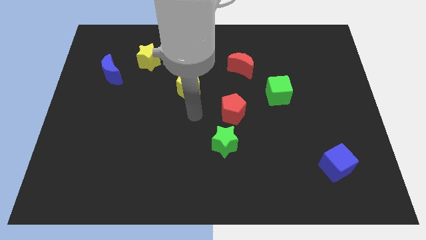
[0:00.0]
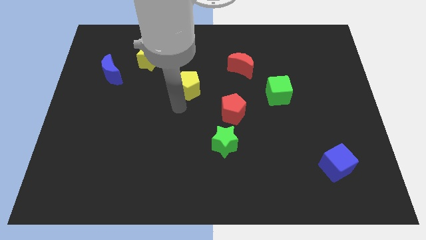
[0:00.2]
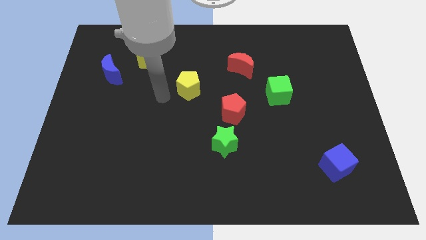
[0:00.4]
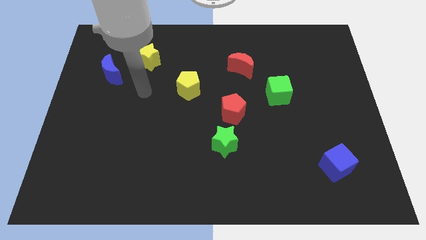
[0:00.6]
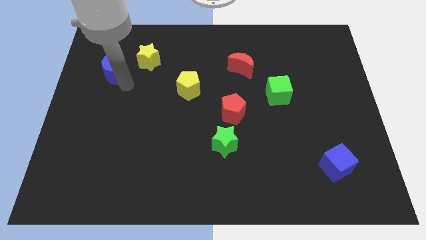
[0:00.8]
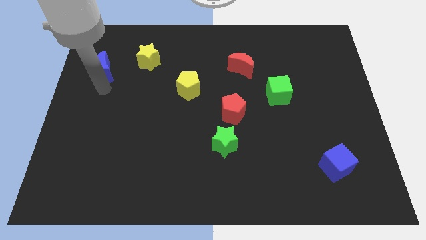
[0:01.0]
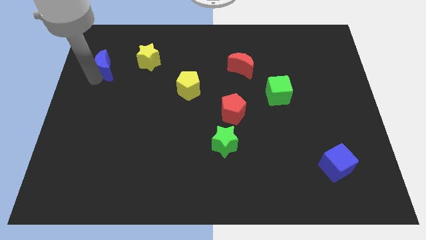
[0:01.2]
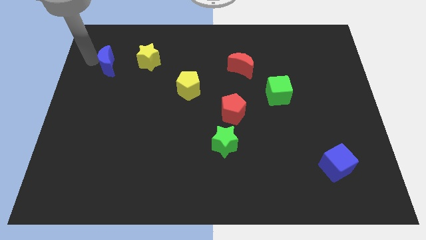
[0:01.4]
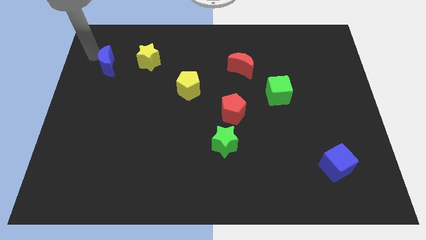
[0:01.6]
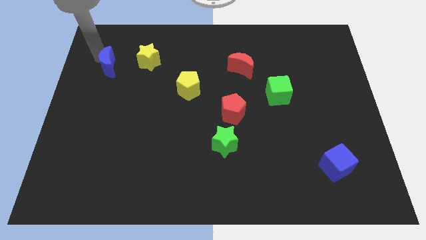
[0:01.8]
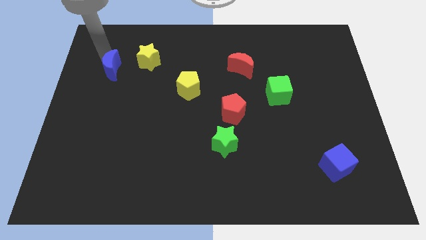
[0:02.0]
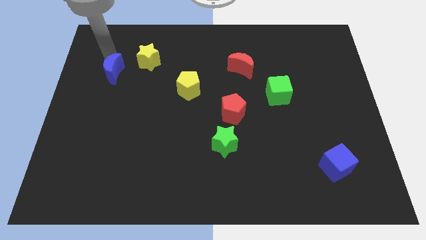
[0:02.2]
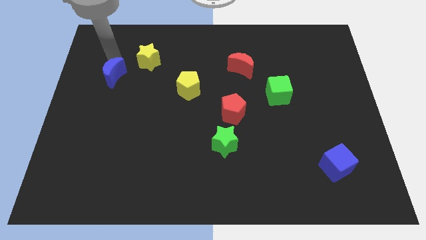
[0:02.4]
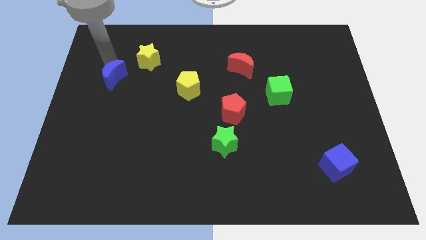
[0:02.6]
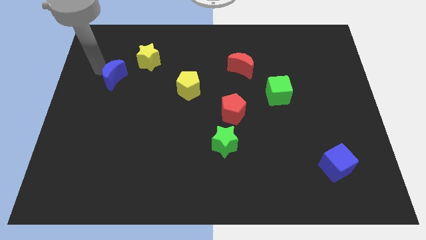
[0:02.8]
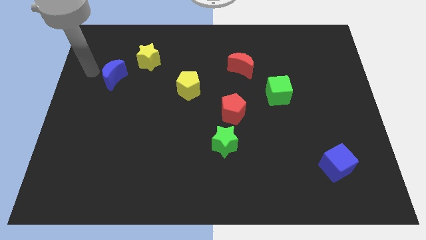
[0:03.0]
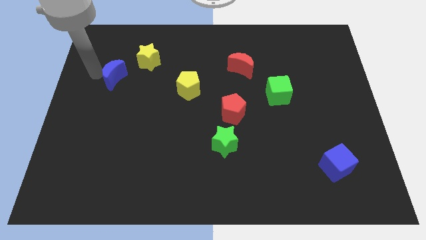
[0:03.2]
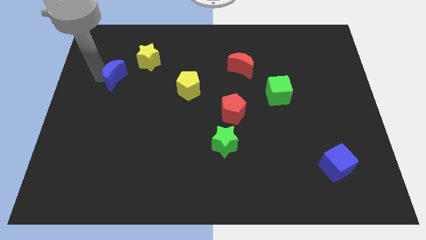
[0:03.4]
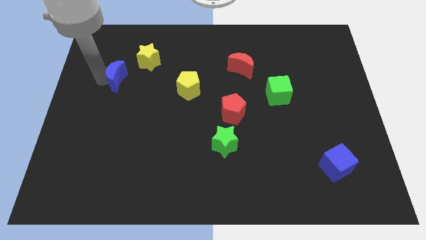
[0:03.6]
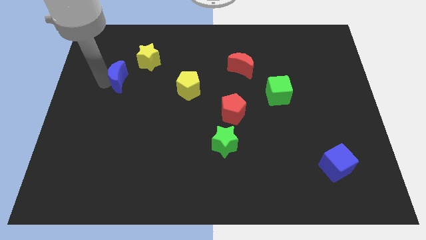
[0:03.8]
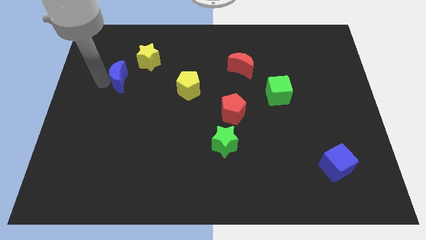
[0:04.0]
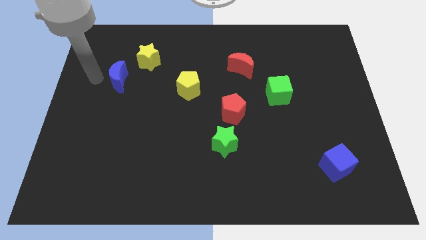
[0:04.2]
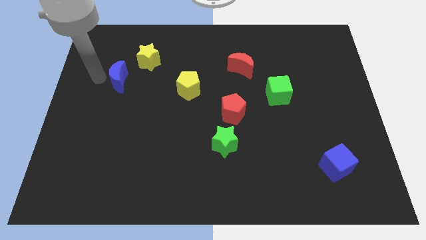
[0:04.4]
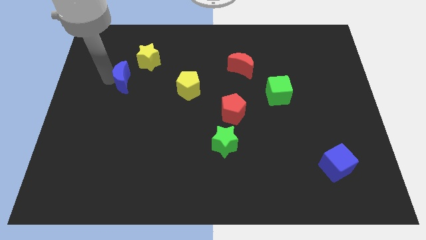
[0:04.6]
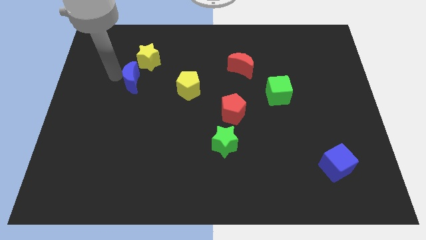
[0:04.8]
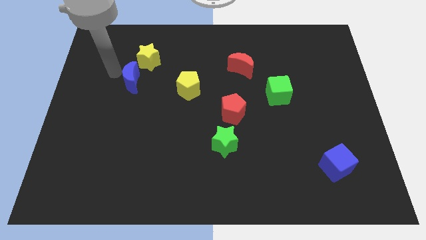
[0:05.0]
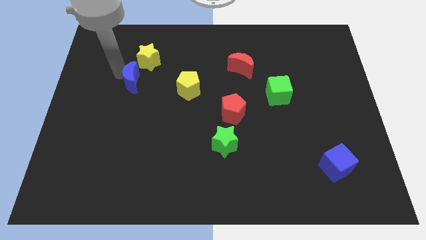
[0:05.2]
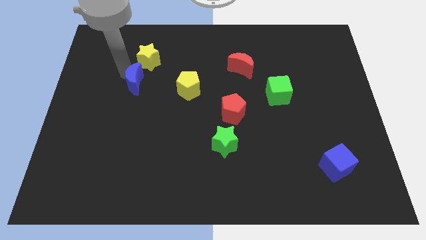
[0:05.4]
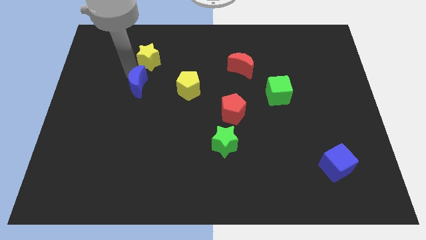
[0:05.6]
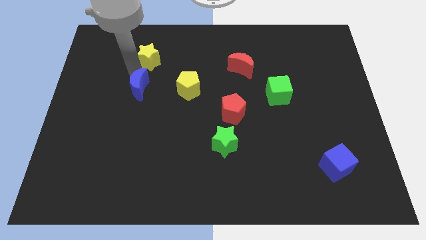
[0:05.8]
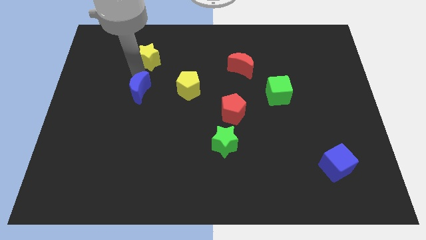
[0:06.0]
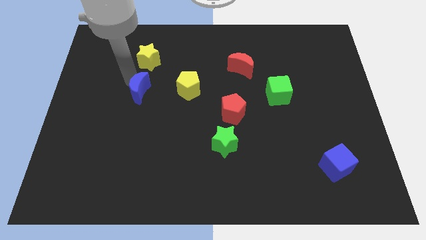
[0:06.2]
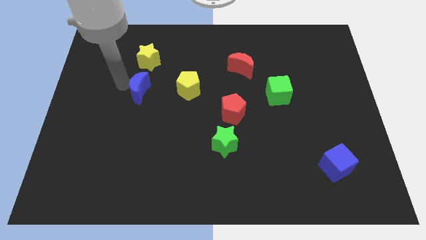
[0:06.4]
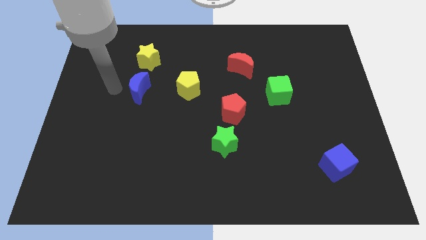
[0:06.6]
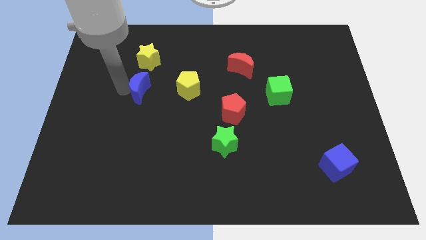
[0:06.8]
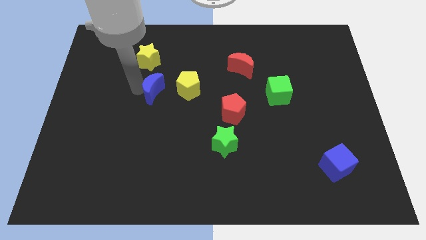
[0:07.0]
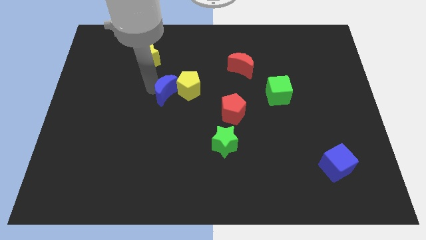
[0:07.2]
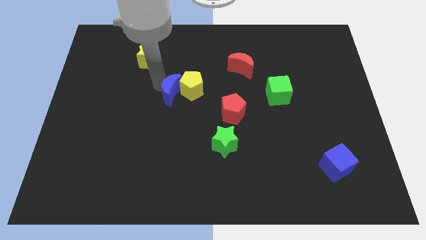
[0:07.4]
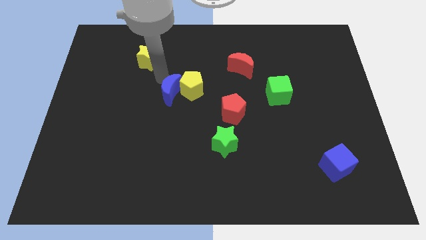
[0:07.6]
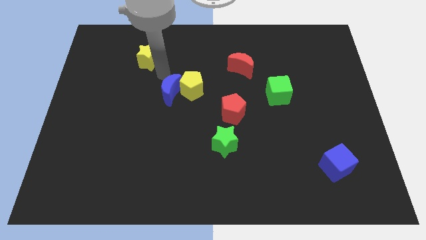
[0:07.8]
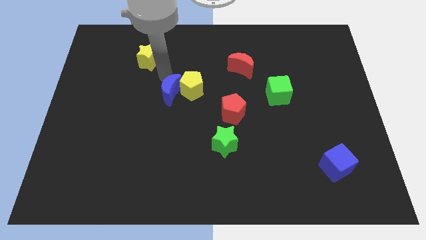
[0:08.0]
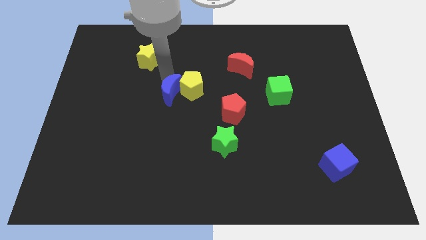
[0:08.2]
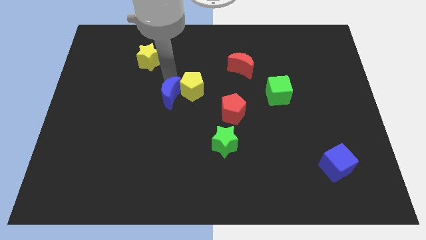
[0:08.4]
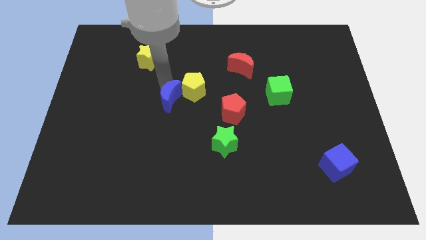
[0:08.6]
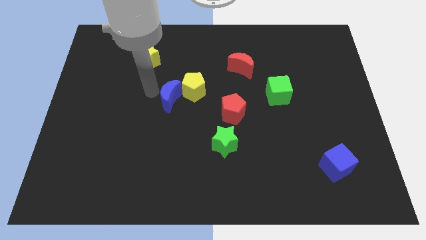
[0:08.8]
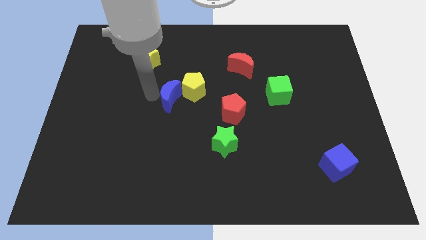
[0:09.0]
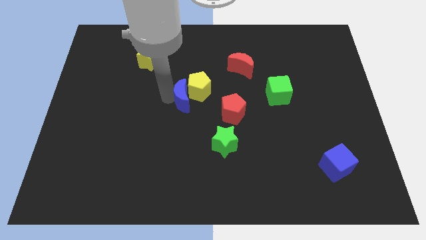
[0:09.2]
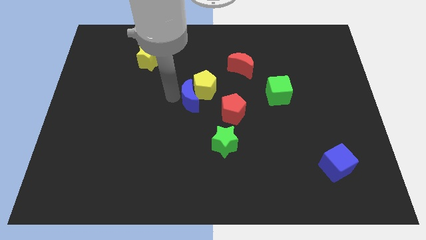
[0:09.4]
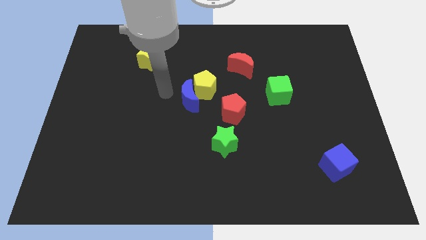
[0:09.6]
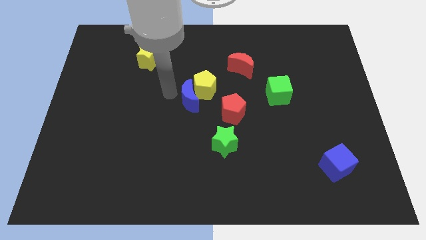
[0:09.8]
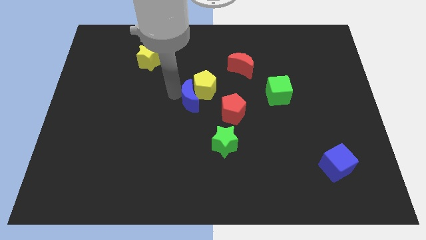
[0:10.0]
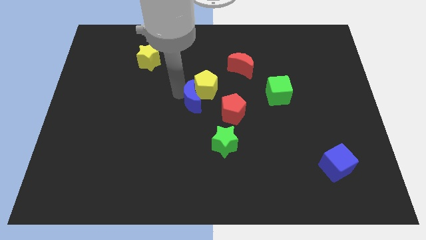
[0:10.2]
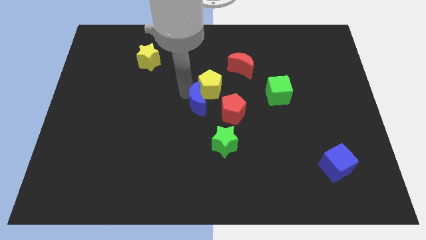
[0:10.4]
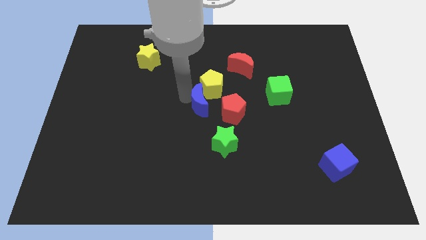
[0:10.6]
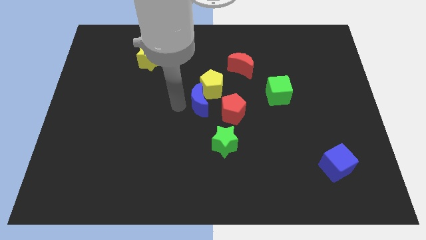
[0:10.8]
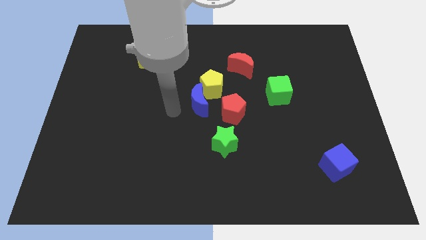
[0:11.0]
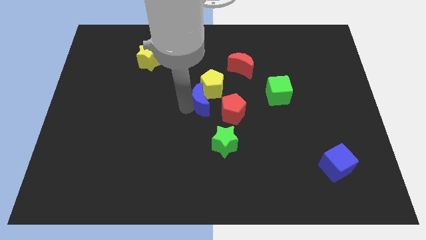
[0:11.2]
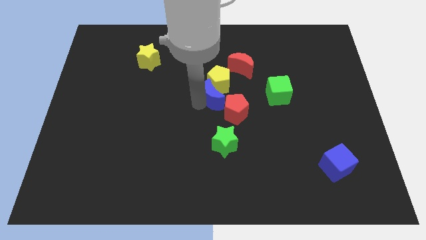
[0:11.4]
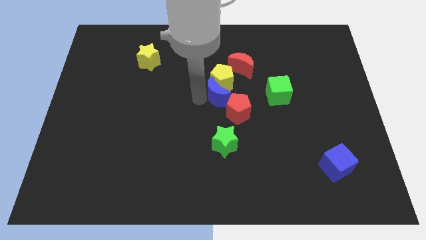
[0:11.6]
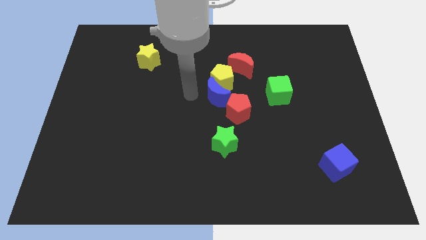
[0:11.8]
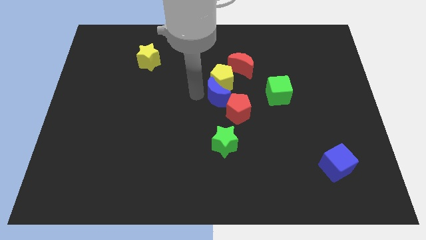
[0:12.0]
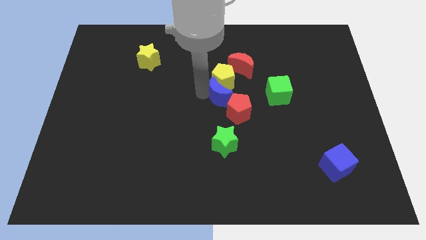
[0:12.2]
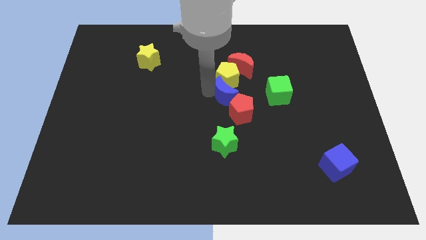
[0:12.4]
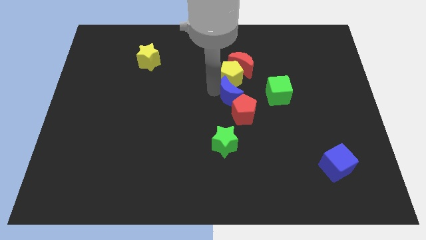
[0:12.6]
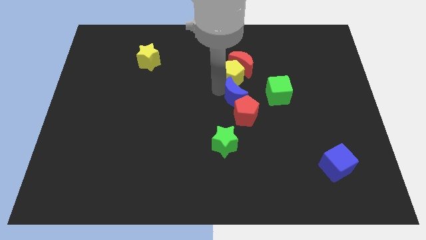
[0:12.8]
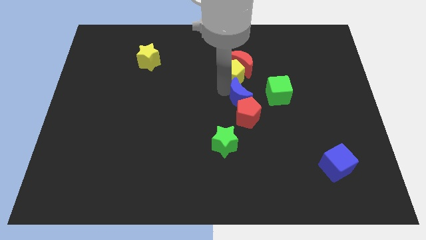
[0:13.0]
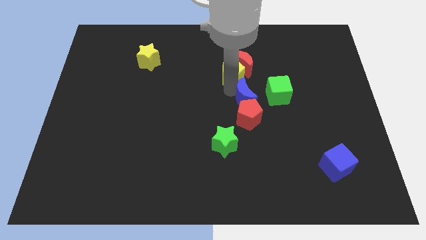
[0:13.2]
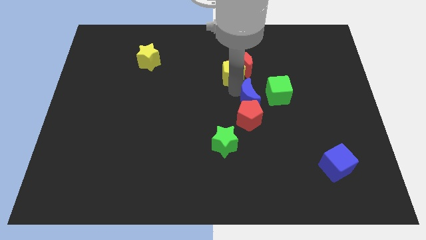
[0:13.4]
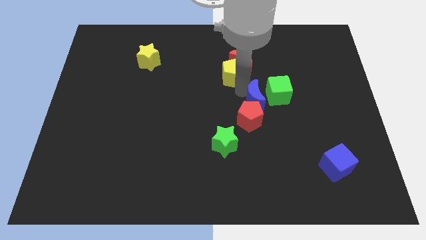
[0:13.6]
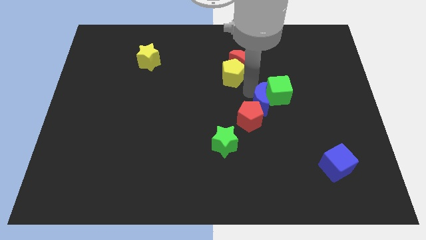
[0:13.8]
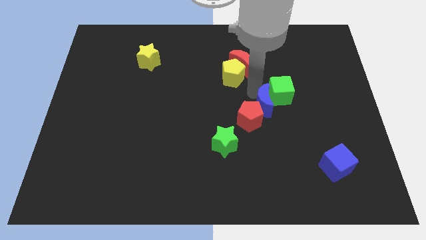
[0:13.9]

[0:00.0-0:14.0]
put the blue moon right of the red pentagon
